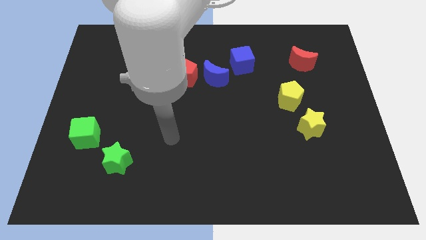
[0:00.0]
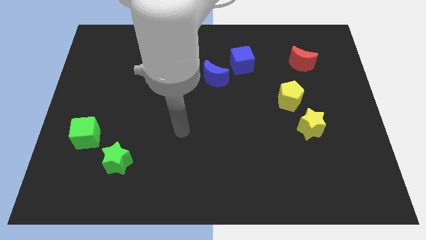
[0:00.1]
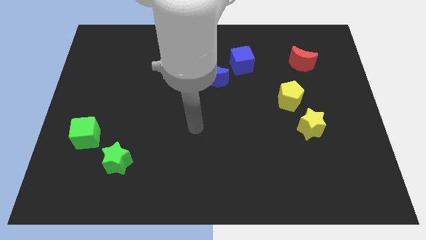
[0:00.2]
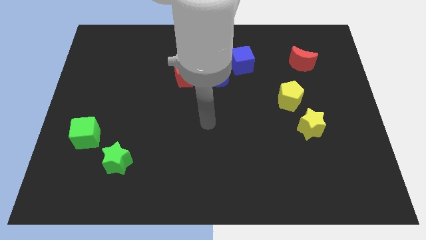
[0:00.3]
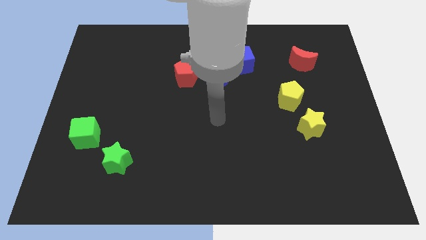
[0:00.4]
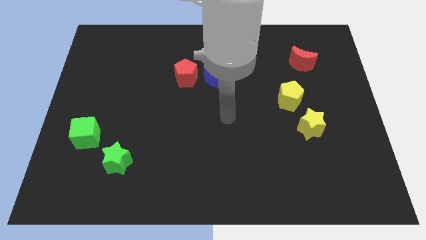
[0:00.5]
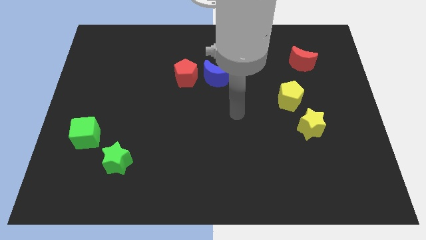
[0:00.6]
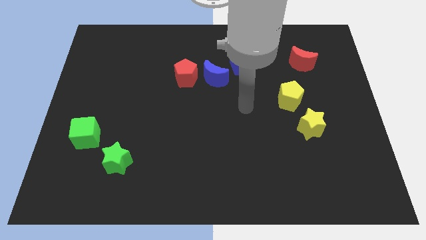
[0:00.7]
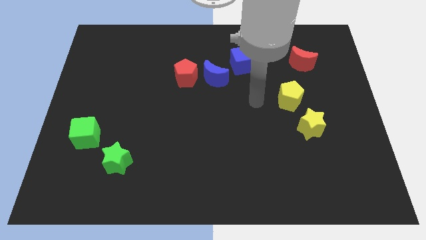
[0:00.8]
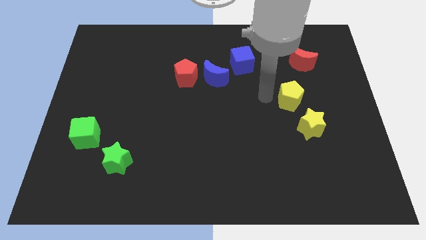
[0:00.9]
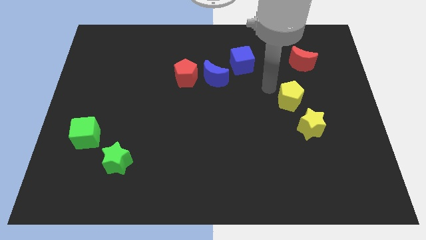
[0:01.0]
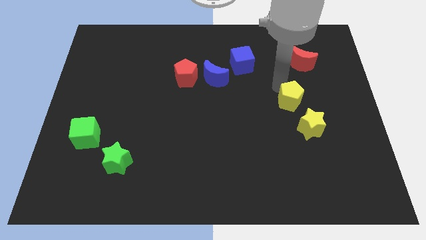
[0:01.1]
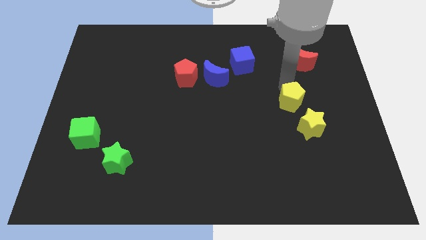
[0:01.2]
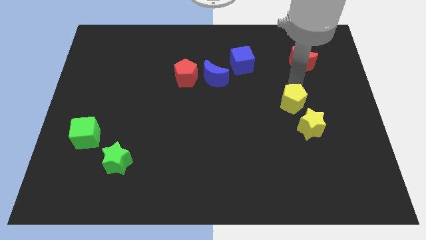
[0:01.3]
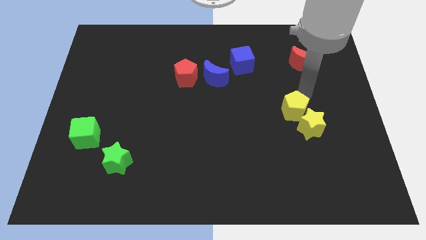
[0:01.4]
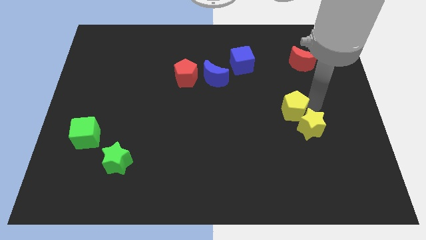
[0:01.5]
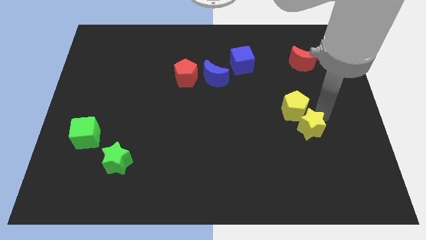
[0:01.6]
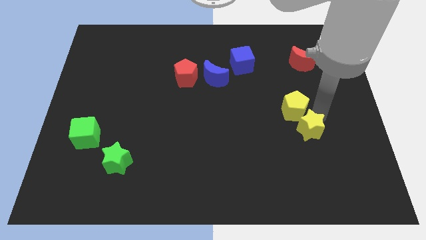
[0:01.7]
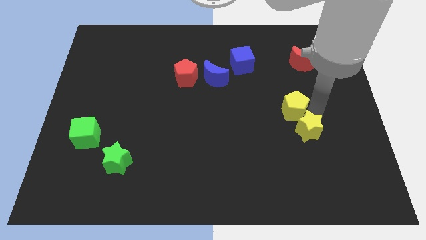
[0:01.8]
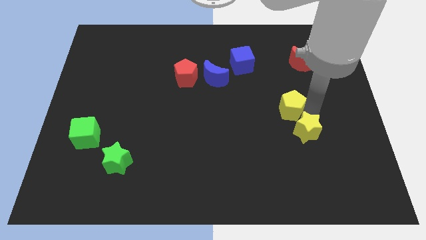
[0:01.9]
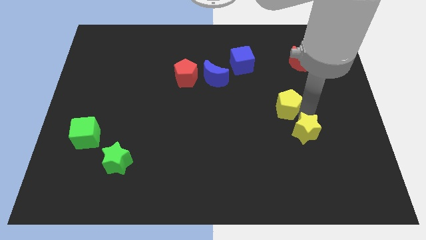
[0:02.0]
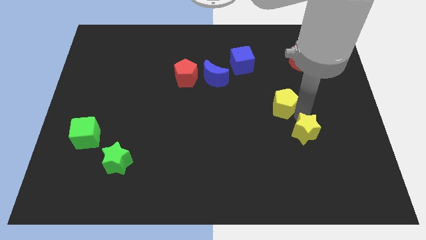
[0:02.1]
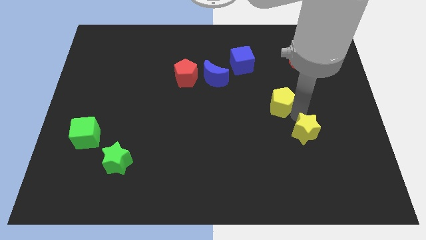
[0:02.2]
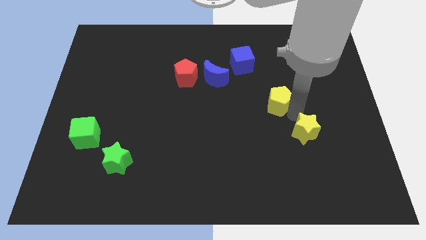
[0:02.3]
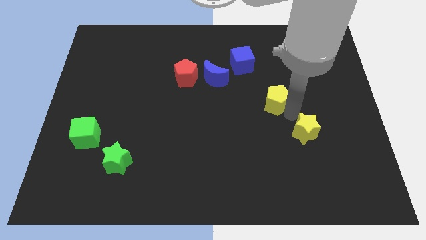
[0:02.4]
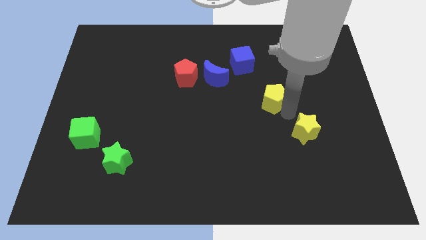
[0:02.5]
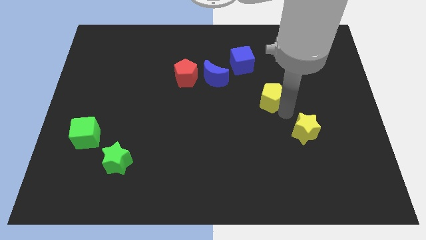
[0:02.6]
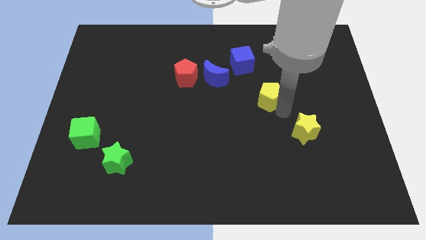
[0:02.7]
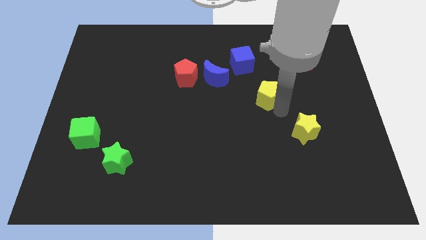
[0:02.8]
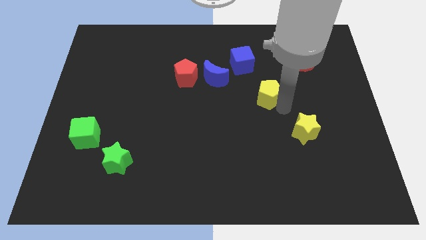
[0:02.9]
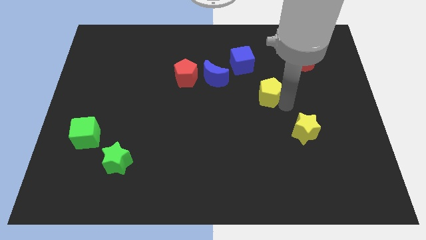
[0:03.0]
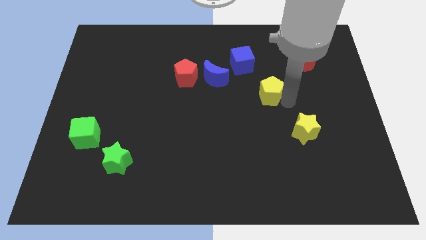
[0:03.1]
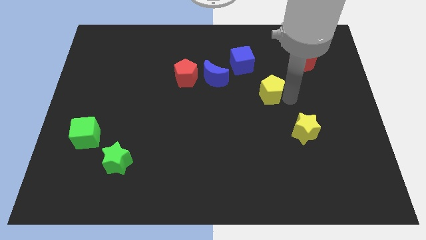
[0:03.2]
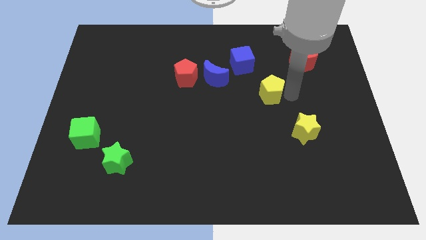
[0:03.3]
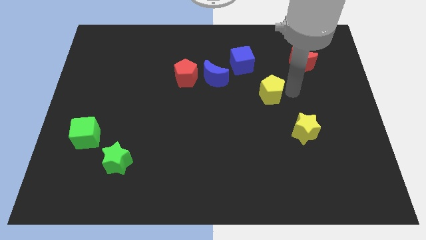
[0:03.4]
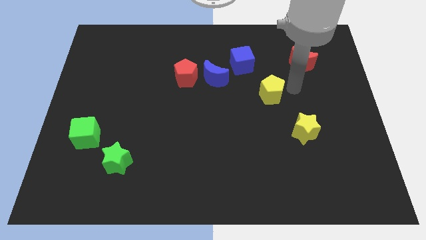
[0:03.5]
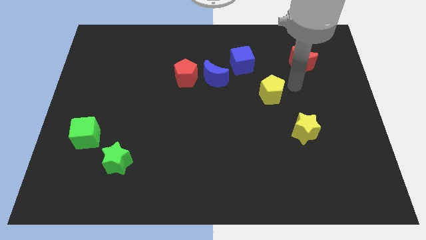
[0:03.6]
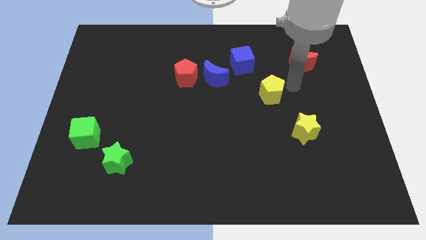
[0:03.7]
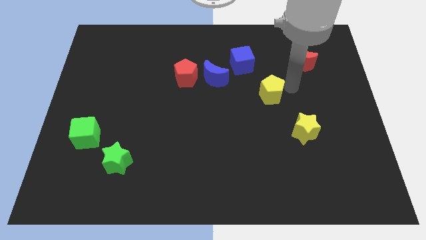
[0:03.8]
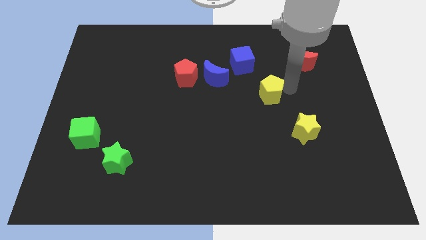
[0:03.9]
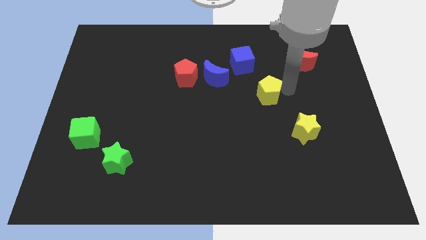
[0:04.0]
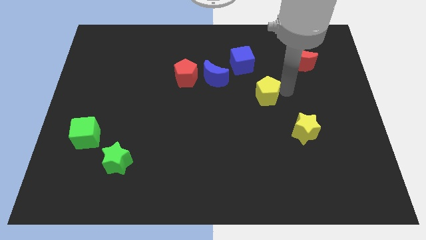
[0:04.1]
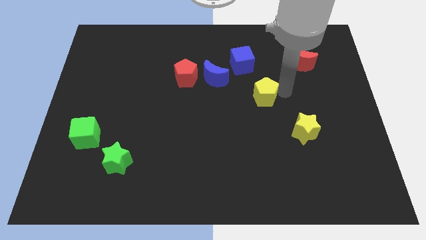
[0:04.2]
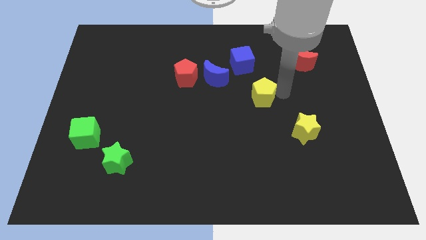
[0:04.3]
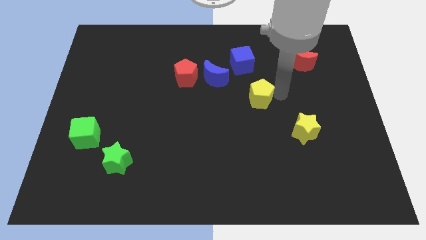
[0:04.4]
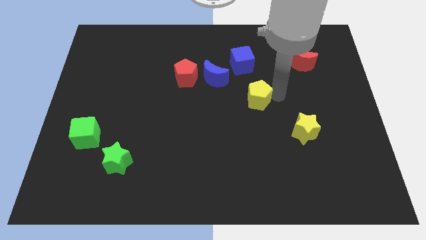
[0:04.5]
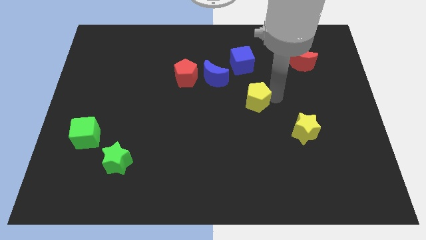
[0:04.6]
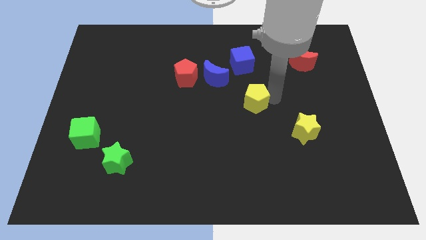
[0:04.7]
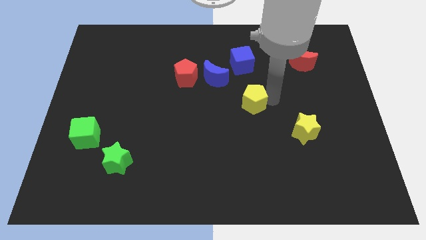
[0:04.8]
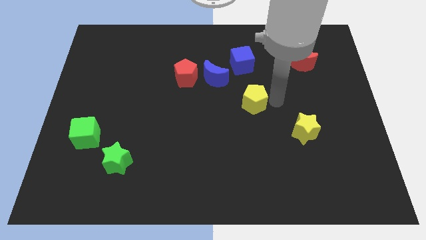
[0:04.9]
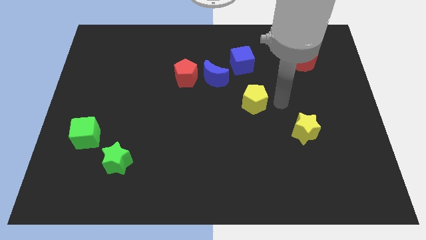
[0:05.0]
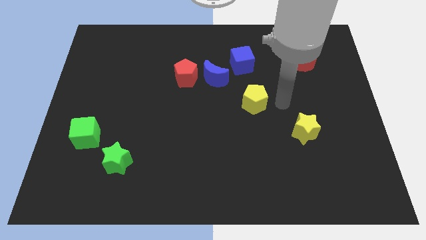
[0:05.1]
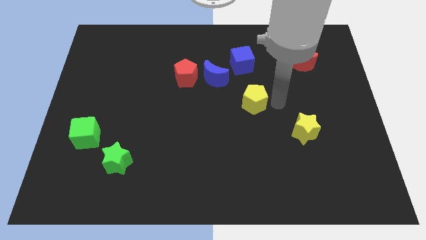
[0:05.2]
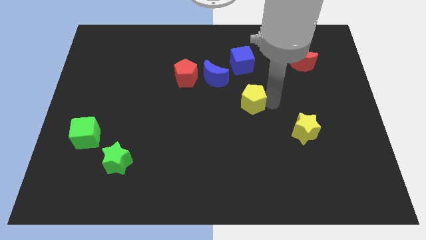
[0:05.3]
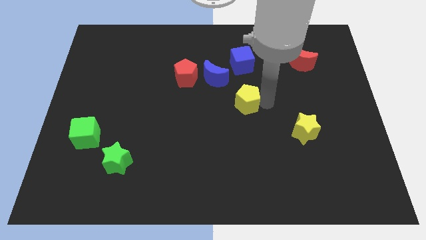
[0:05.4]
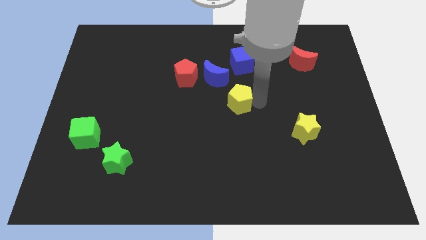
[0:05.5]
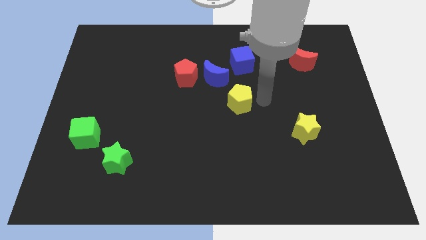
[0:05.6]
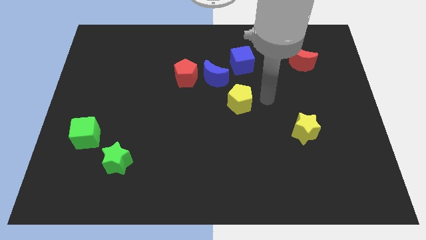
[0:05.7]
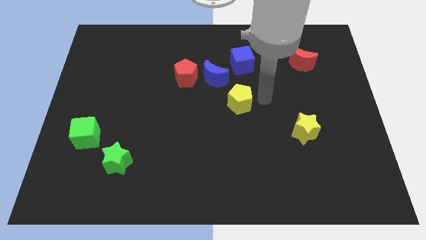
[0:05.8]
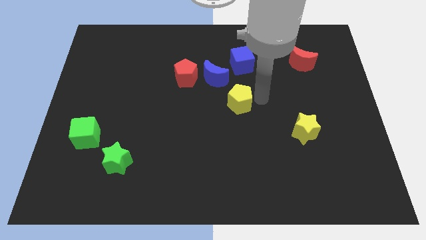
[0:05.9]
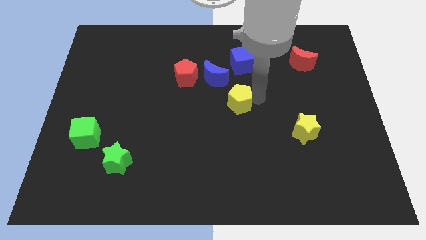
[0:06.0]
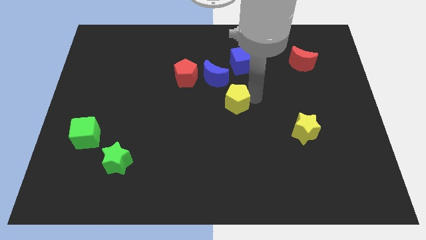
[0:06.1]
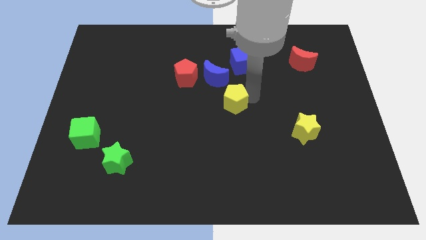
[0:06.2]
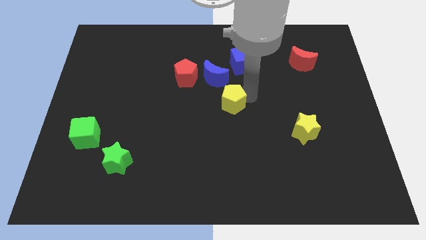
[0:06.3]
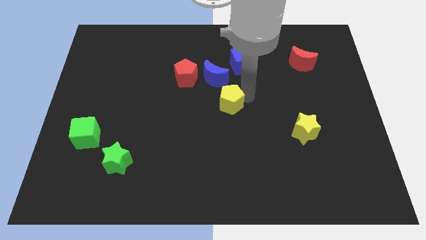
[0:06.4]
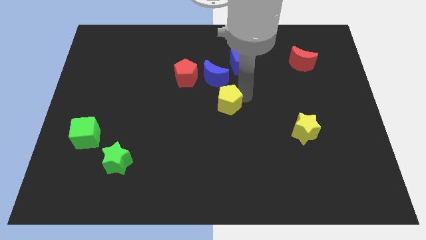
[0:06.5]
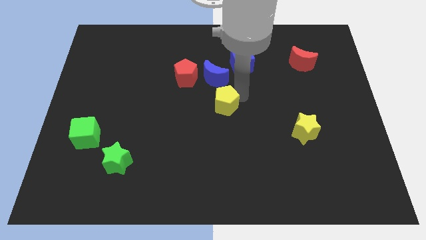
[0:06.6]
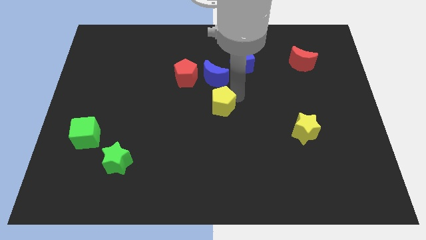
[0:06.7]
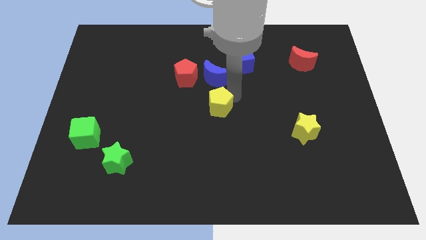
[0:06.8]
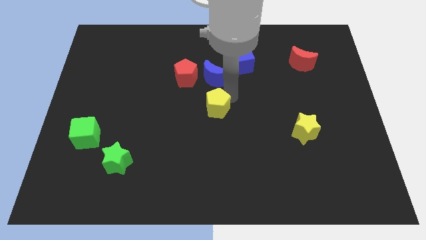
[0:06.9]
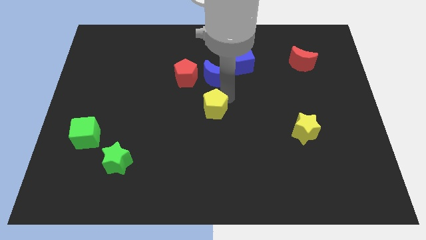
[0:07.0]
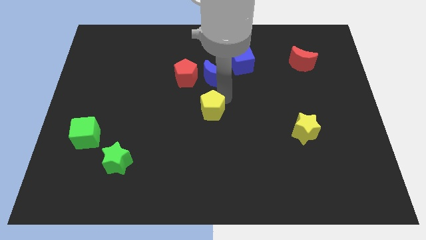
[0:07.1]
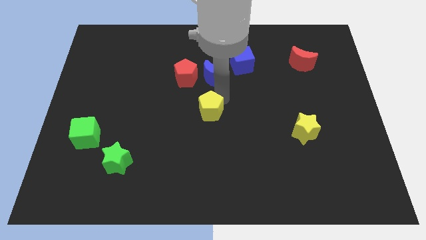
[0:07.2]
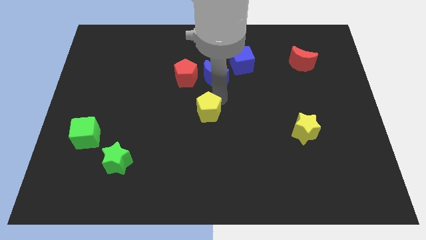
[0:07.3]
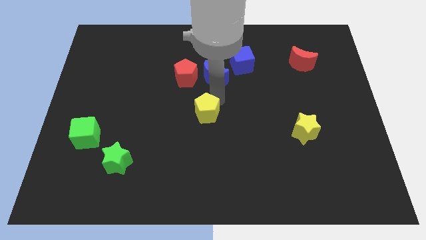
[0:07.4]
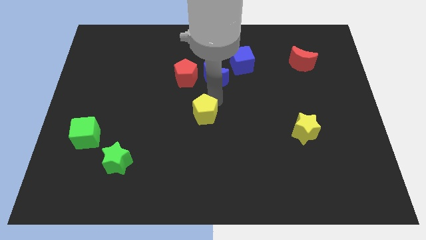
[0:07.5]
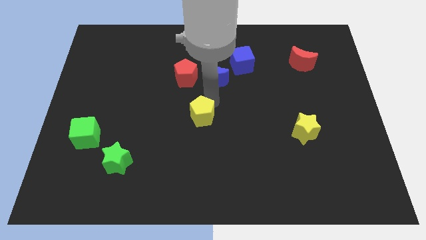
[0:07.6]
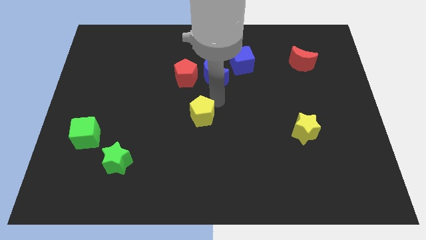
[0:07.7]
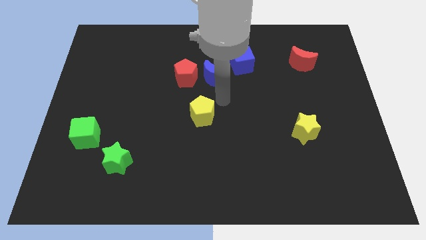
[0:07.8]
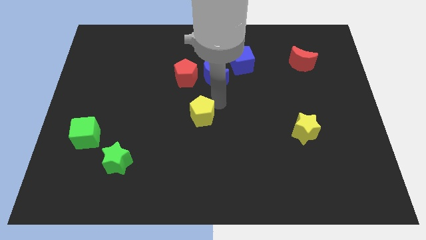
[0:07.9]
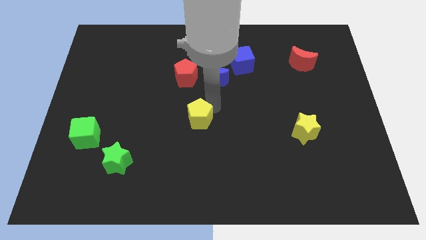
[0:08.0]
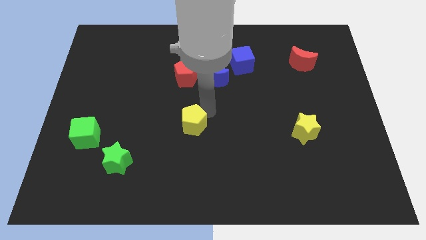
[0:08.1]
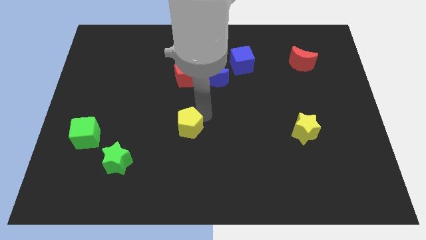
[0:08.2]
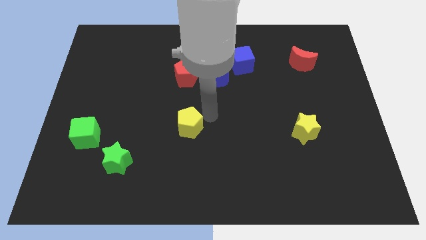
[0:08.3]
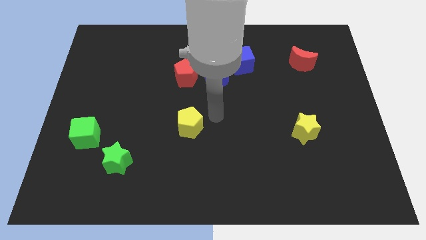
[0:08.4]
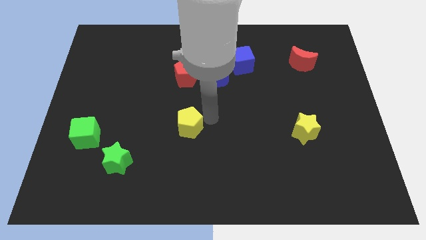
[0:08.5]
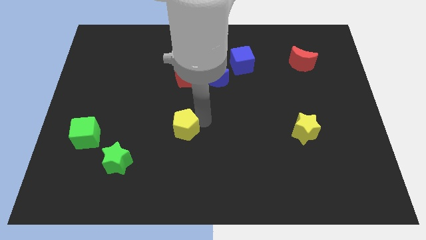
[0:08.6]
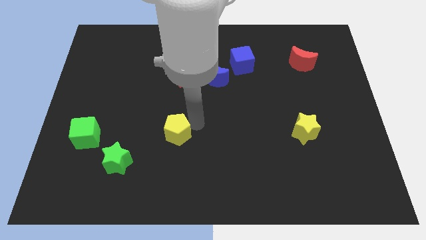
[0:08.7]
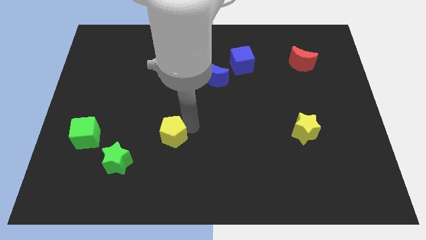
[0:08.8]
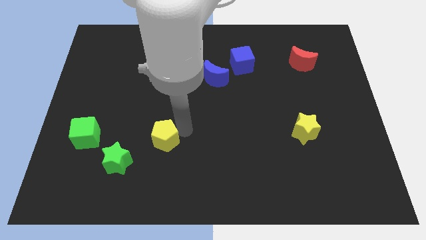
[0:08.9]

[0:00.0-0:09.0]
slide the yellow pentagon diagonally up and to the right of the green star
